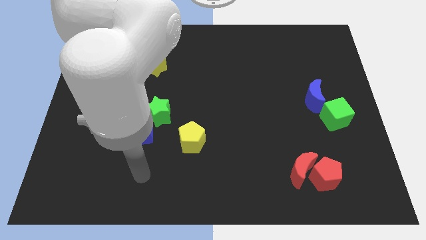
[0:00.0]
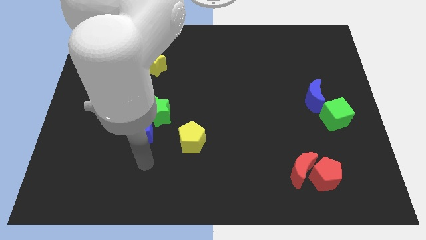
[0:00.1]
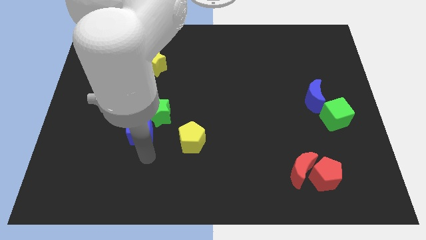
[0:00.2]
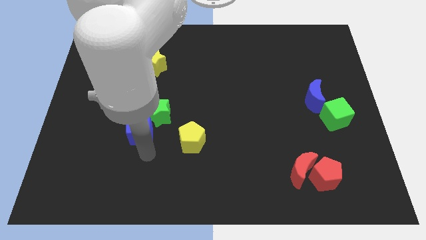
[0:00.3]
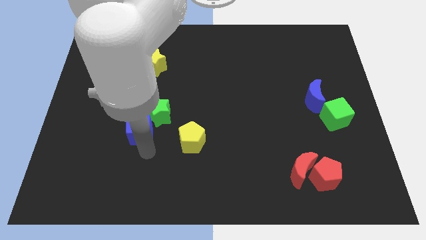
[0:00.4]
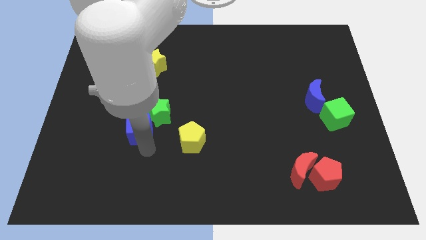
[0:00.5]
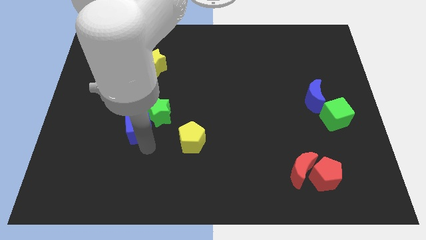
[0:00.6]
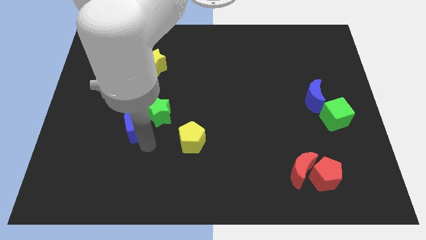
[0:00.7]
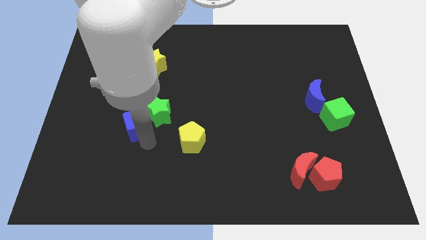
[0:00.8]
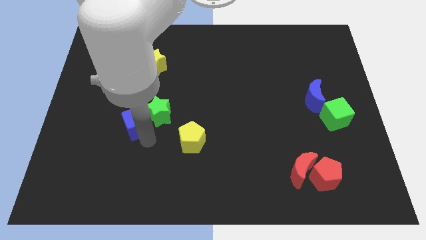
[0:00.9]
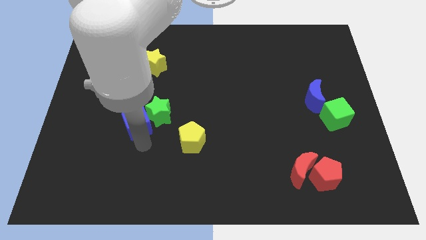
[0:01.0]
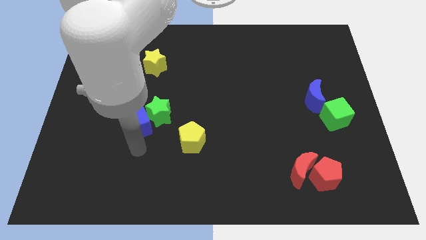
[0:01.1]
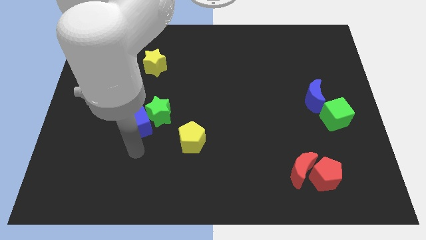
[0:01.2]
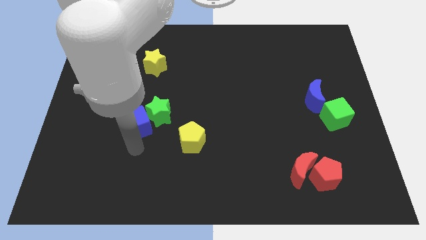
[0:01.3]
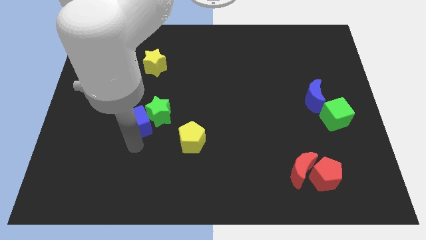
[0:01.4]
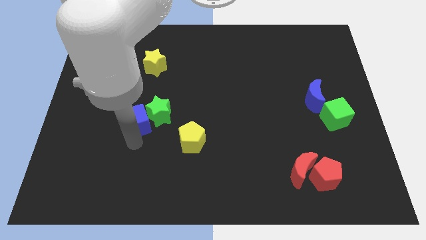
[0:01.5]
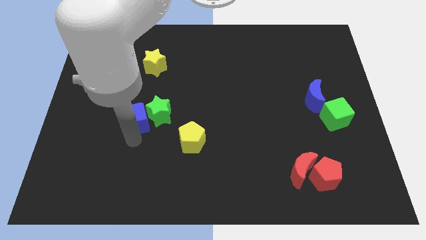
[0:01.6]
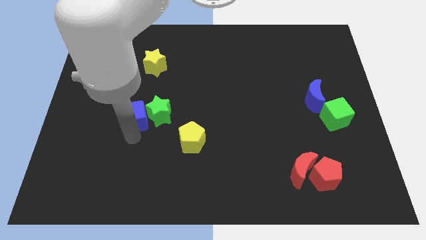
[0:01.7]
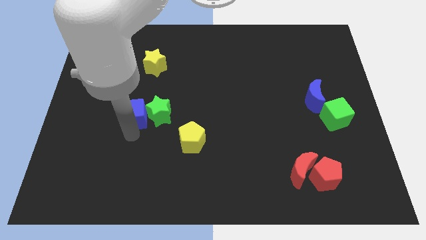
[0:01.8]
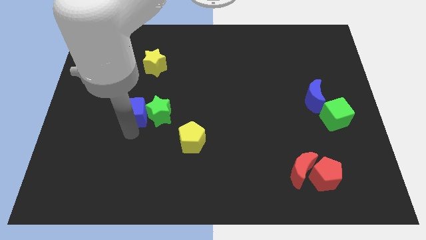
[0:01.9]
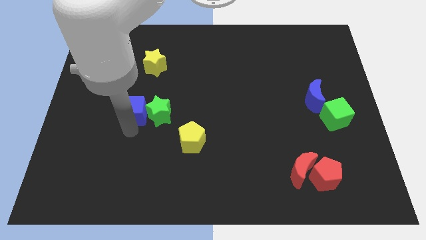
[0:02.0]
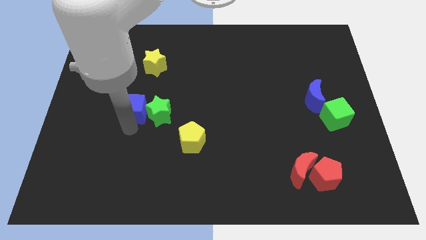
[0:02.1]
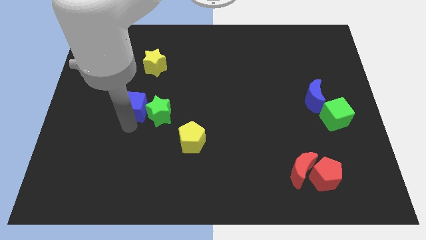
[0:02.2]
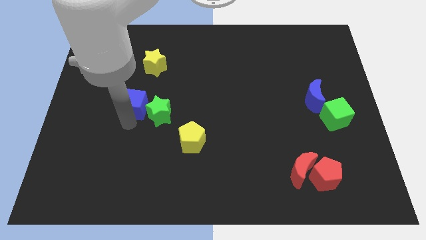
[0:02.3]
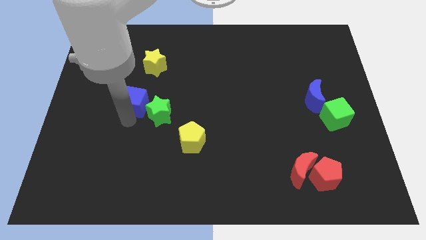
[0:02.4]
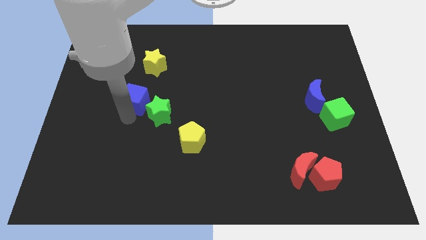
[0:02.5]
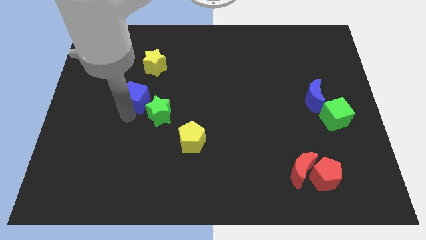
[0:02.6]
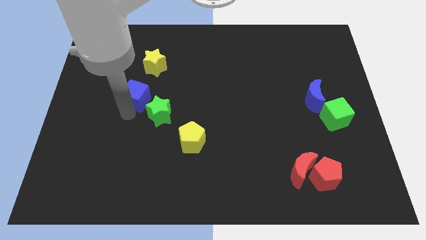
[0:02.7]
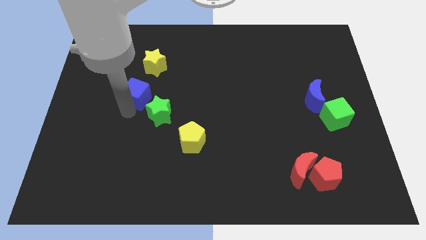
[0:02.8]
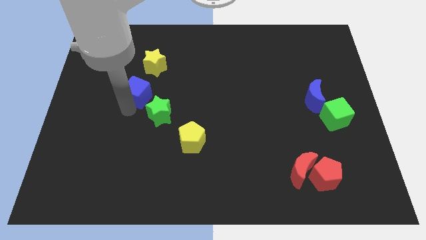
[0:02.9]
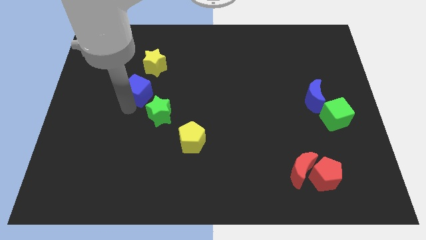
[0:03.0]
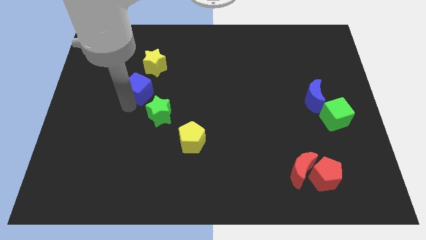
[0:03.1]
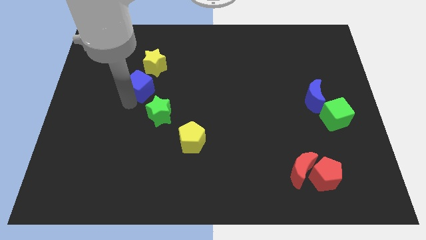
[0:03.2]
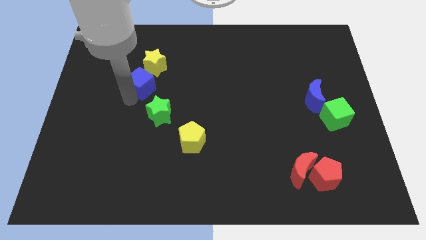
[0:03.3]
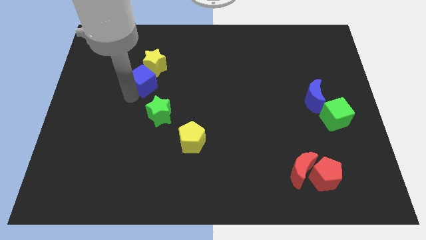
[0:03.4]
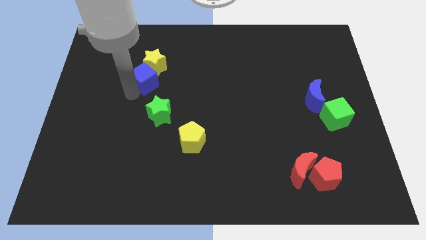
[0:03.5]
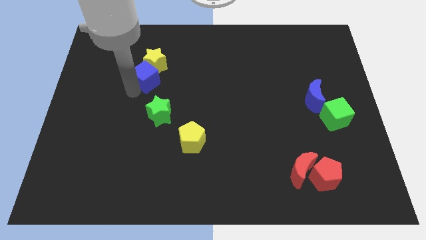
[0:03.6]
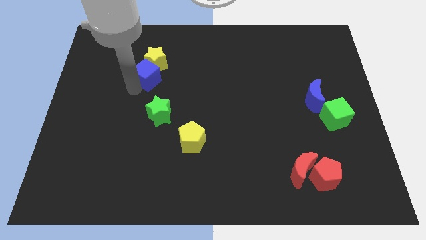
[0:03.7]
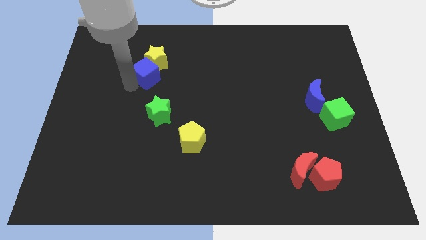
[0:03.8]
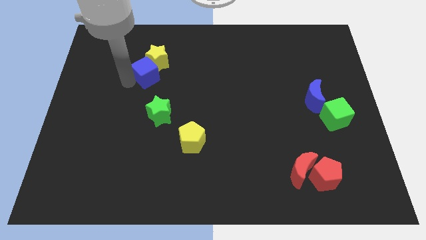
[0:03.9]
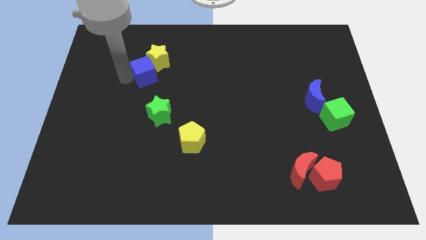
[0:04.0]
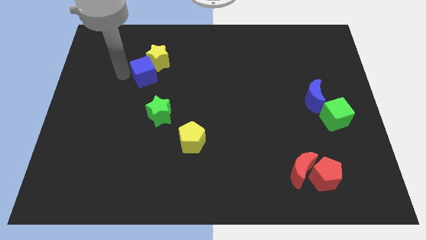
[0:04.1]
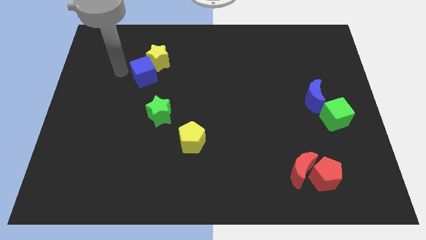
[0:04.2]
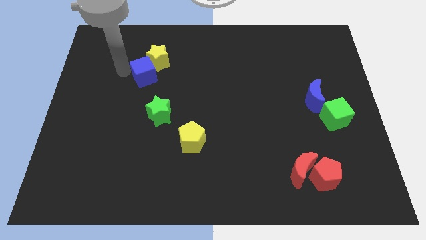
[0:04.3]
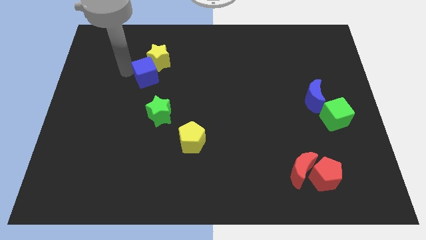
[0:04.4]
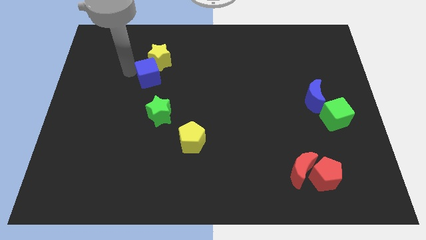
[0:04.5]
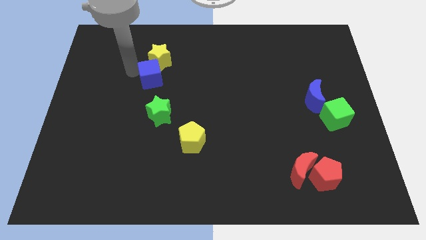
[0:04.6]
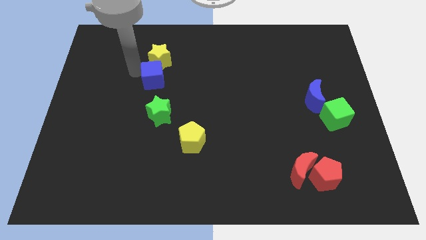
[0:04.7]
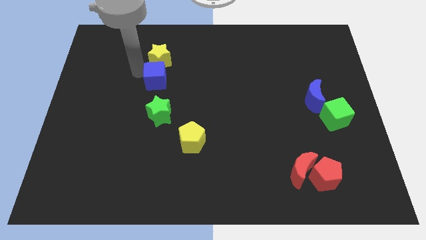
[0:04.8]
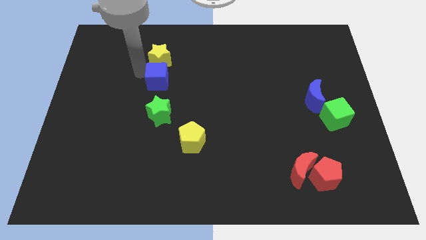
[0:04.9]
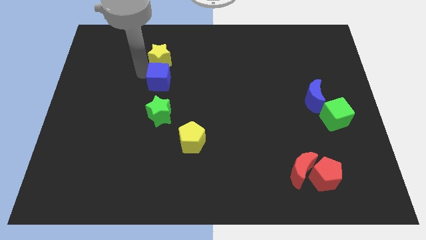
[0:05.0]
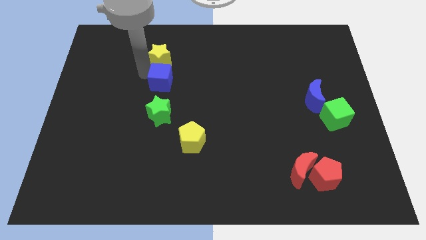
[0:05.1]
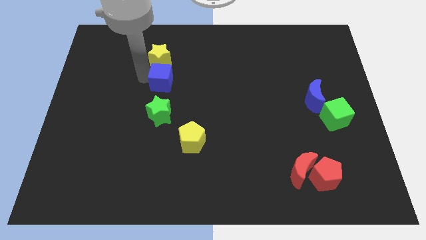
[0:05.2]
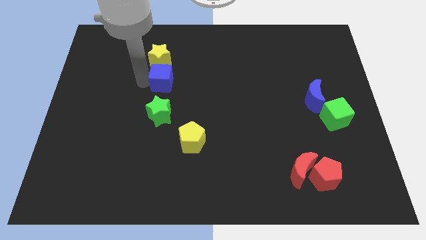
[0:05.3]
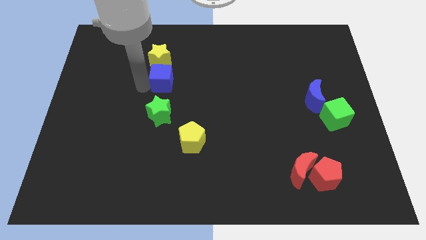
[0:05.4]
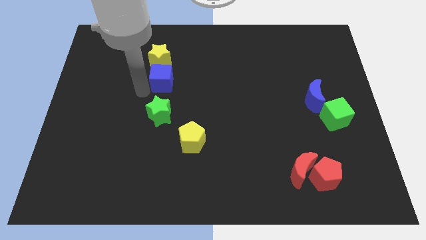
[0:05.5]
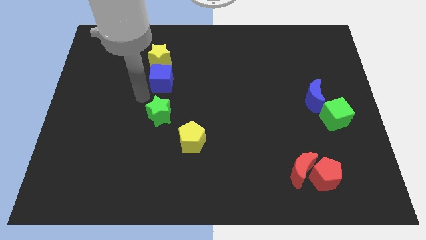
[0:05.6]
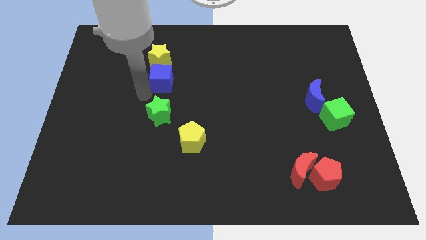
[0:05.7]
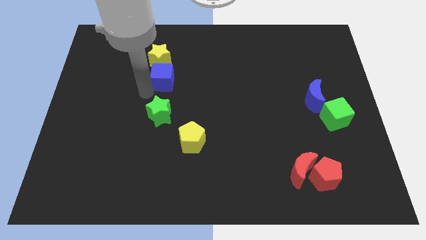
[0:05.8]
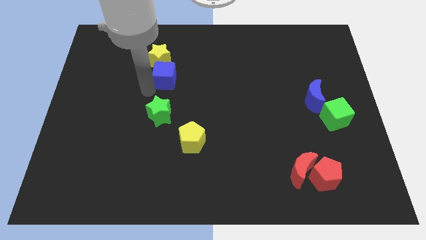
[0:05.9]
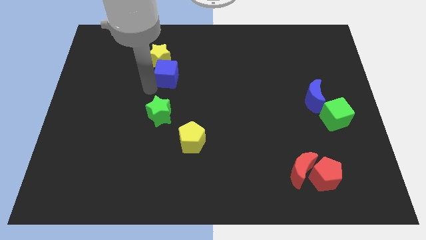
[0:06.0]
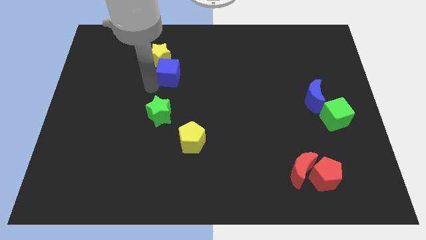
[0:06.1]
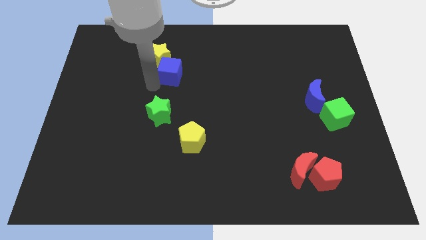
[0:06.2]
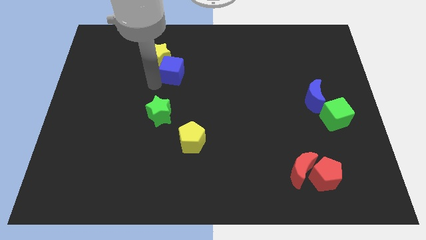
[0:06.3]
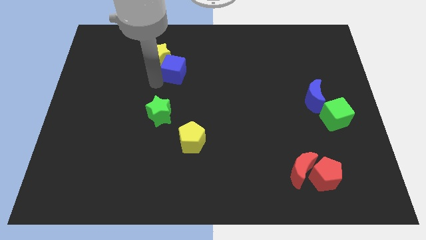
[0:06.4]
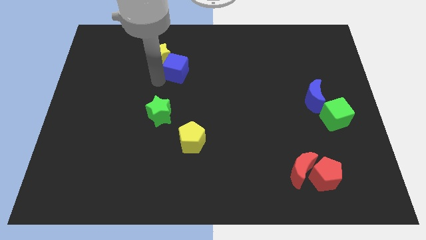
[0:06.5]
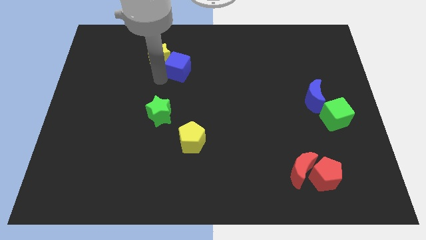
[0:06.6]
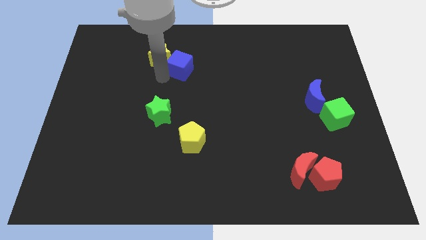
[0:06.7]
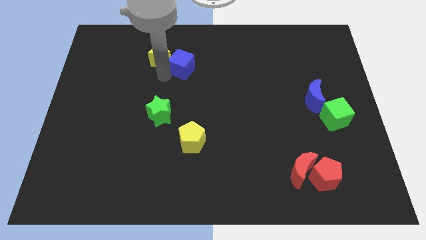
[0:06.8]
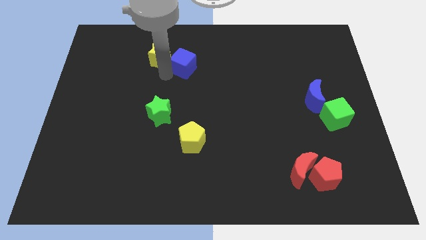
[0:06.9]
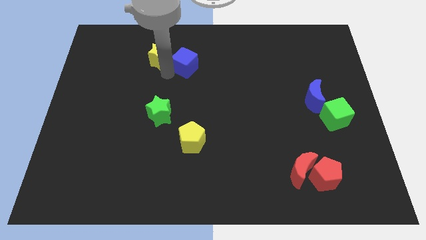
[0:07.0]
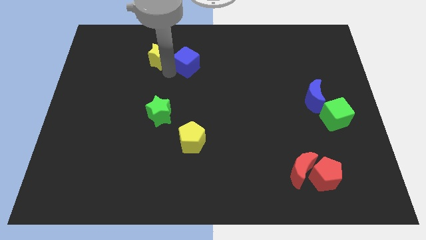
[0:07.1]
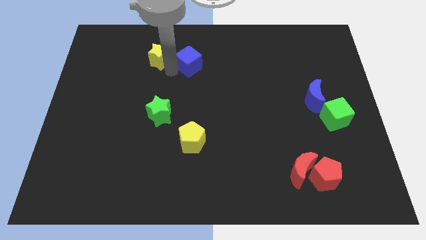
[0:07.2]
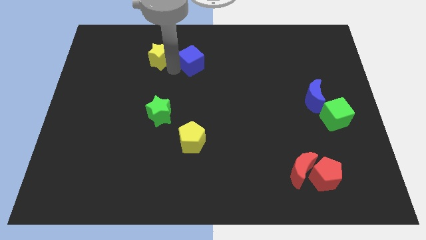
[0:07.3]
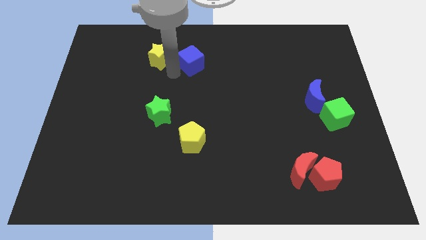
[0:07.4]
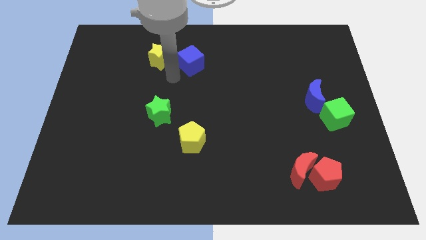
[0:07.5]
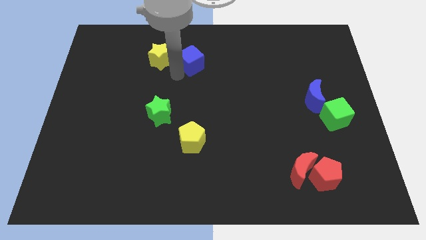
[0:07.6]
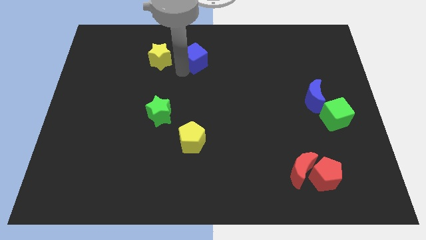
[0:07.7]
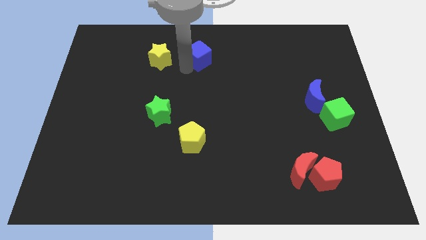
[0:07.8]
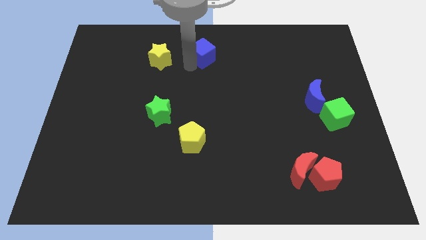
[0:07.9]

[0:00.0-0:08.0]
slide the blue cube to the top side
